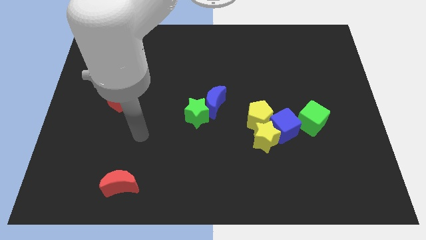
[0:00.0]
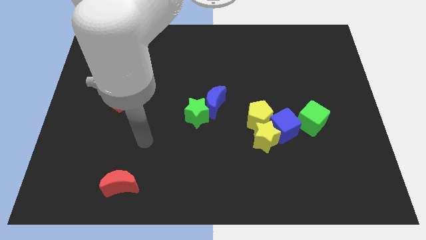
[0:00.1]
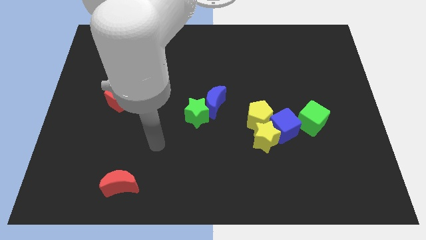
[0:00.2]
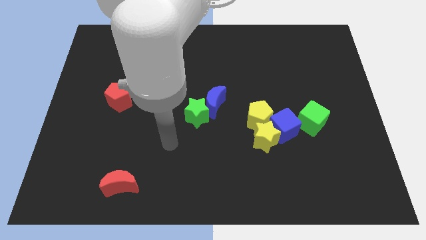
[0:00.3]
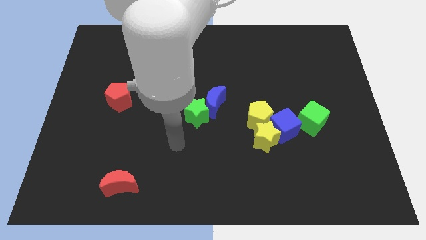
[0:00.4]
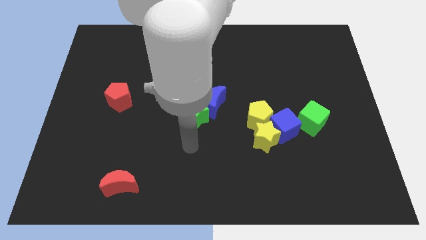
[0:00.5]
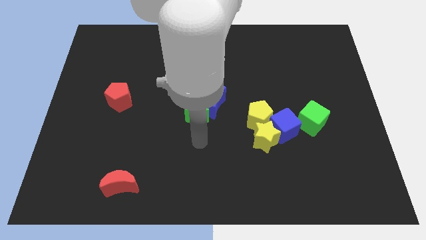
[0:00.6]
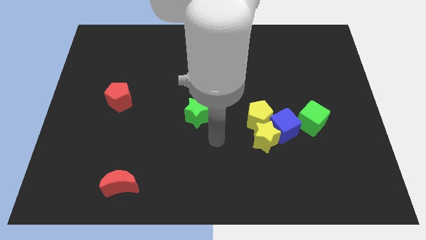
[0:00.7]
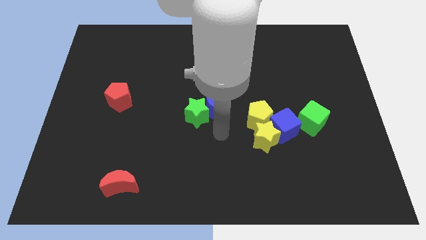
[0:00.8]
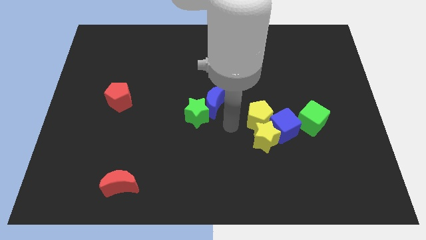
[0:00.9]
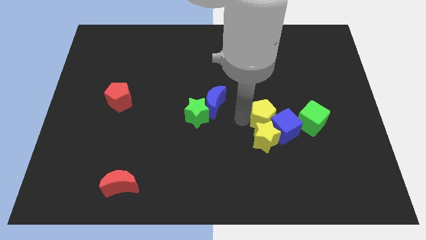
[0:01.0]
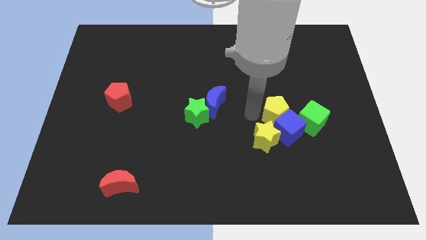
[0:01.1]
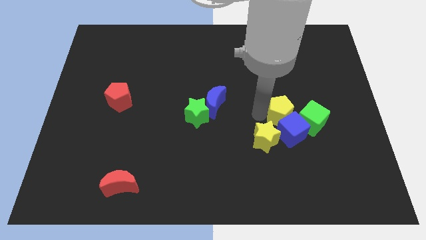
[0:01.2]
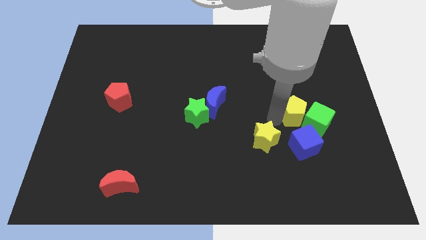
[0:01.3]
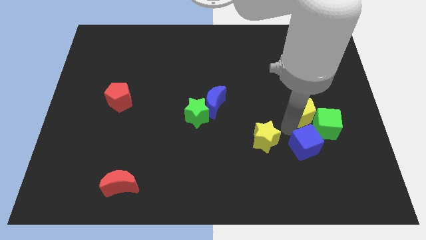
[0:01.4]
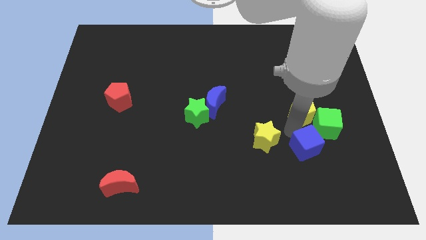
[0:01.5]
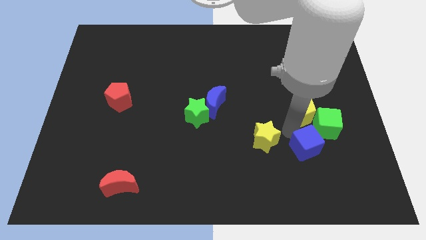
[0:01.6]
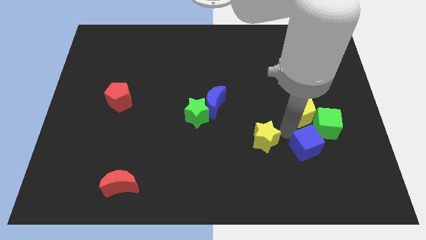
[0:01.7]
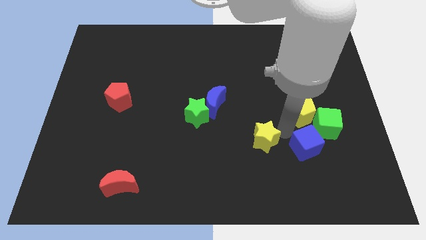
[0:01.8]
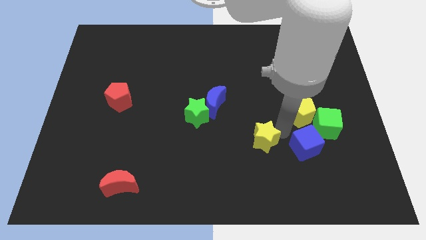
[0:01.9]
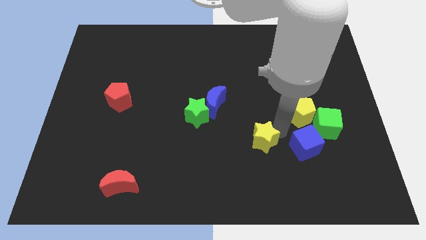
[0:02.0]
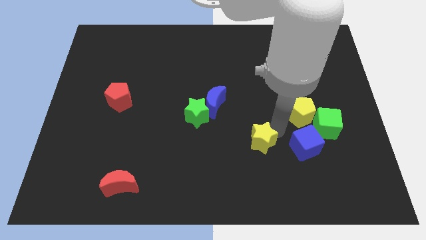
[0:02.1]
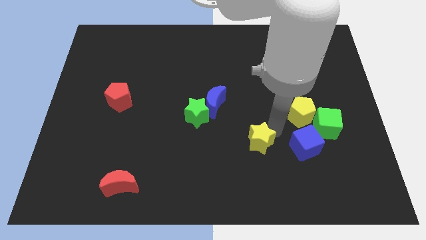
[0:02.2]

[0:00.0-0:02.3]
move the yellow star away from the blue cube and yellow pentagon

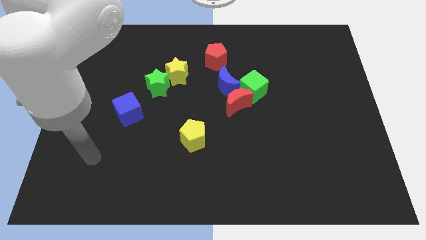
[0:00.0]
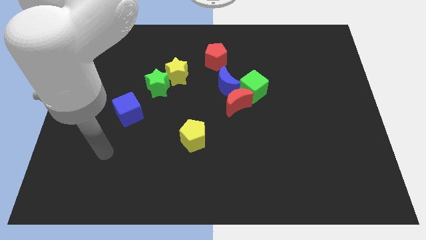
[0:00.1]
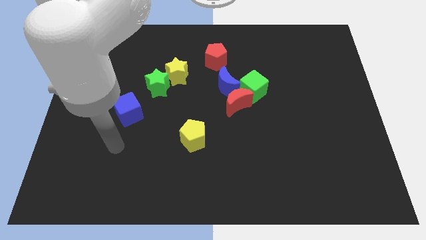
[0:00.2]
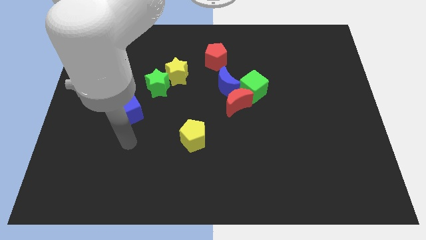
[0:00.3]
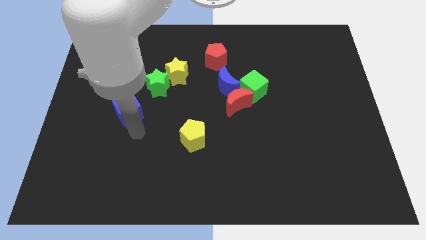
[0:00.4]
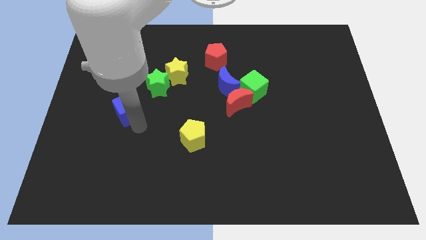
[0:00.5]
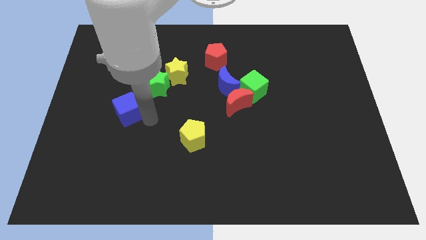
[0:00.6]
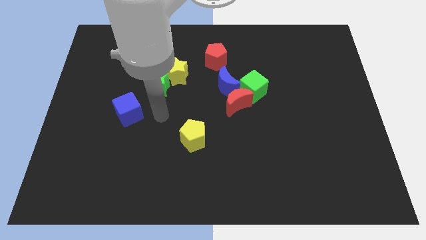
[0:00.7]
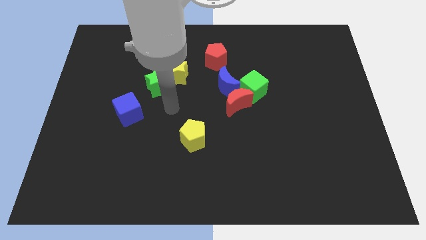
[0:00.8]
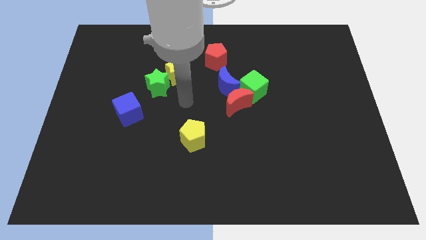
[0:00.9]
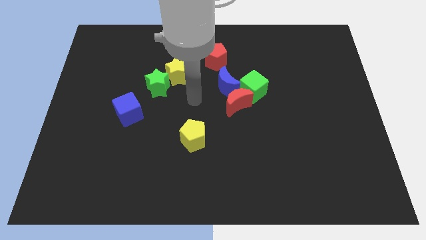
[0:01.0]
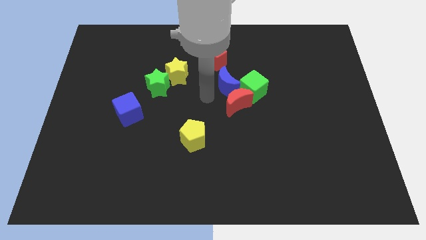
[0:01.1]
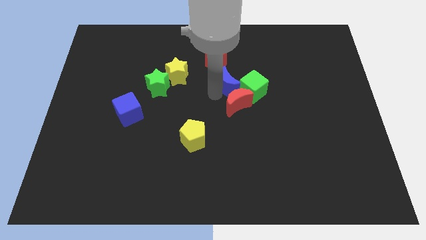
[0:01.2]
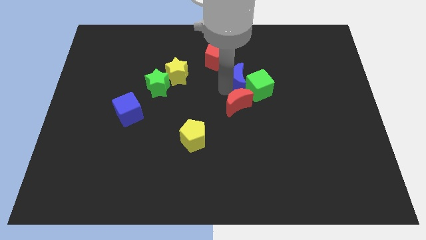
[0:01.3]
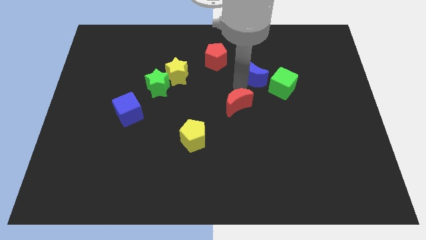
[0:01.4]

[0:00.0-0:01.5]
move the red moon away from the green cube and blue moon

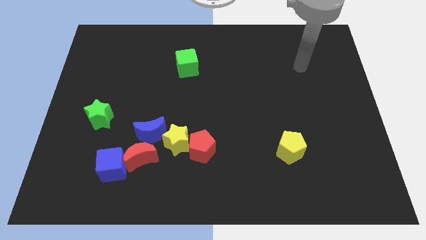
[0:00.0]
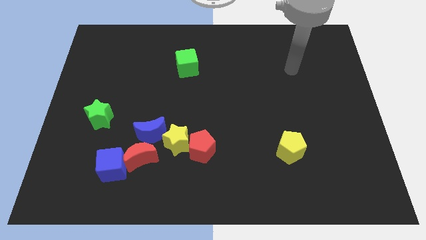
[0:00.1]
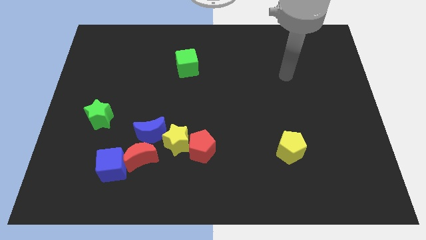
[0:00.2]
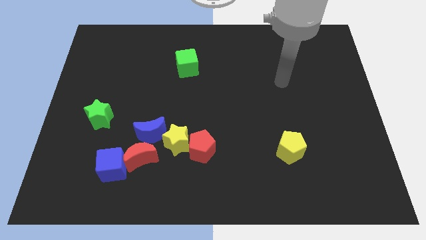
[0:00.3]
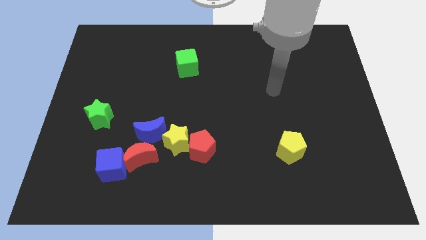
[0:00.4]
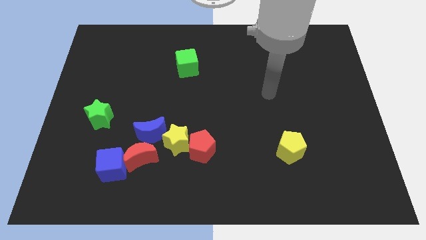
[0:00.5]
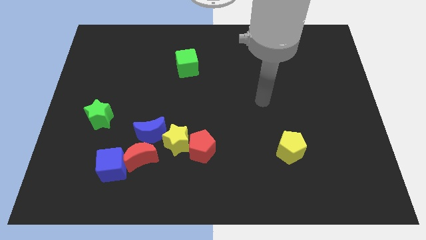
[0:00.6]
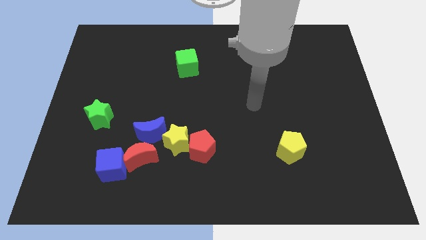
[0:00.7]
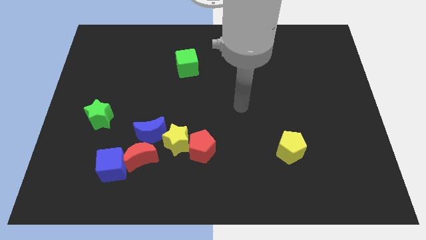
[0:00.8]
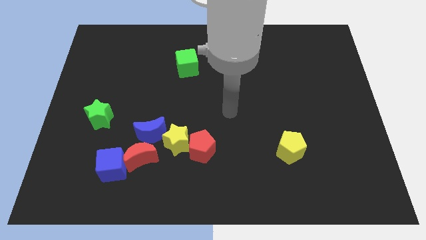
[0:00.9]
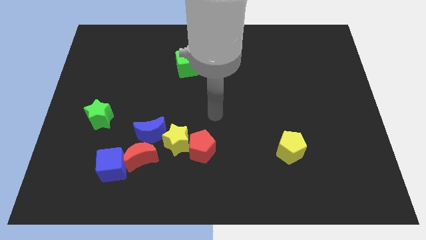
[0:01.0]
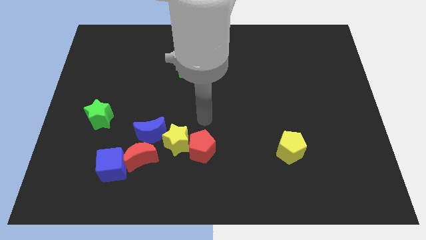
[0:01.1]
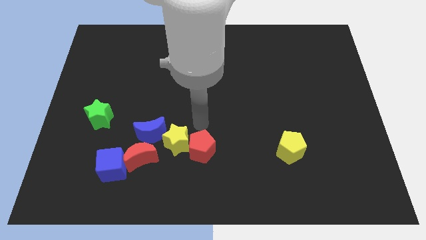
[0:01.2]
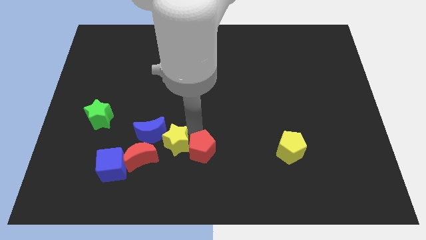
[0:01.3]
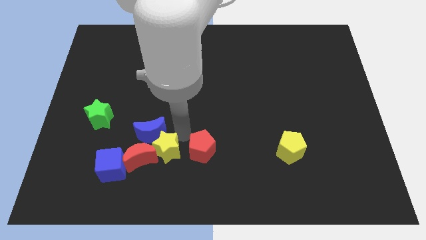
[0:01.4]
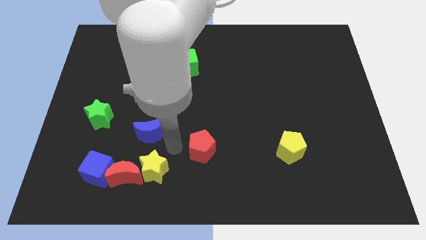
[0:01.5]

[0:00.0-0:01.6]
separate the red pentagon from the yellow star

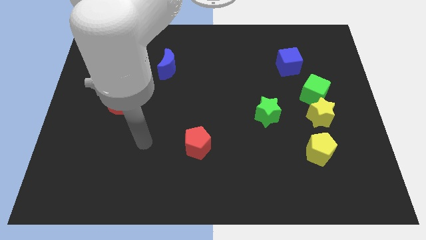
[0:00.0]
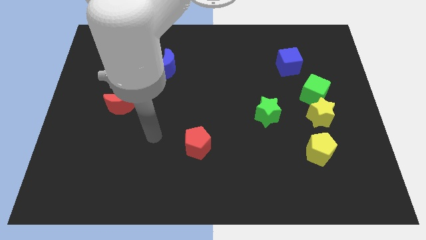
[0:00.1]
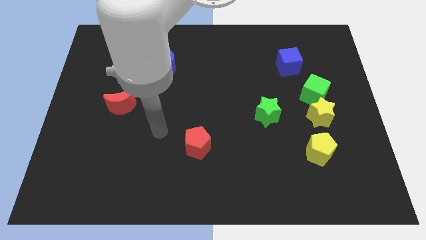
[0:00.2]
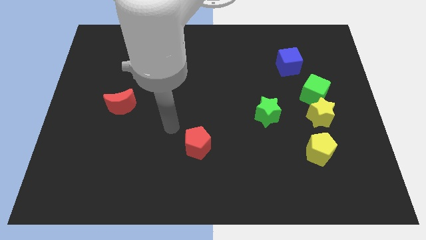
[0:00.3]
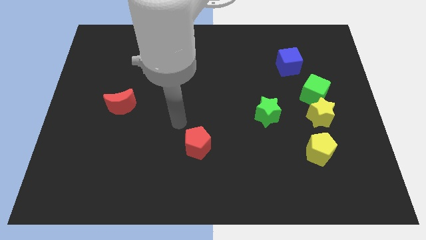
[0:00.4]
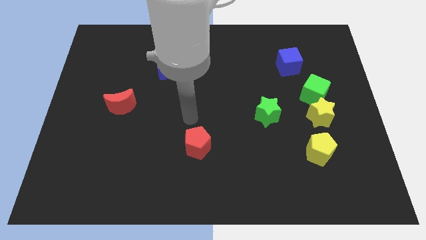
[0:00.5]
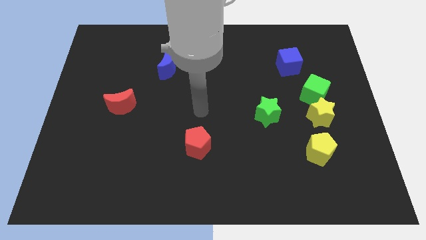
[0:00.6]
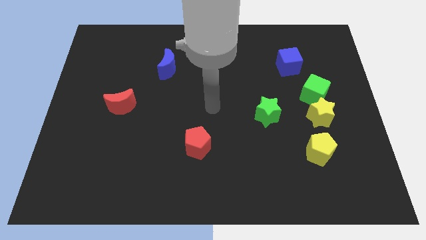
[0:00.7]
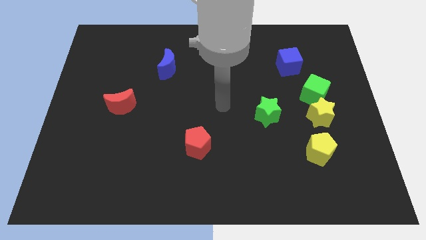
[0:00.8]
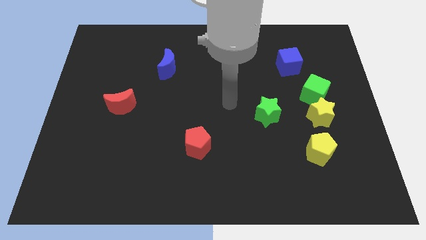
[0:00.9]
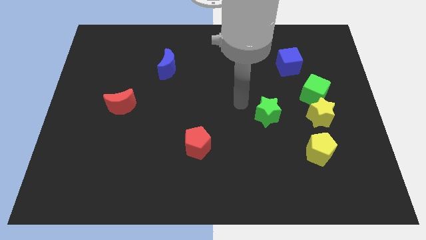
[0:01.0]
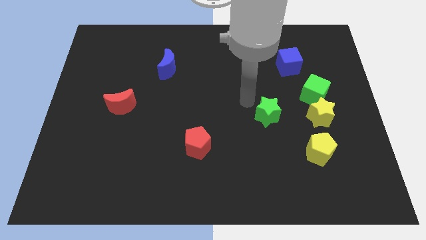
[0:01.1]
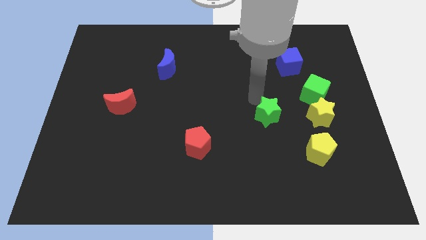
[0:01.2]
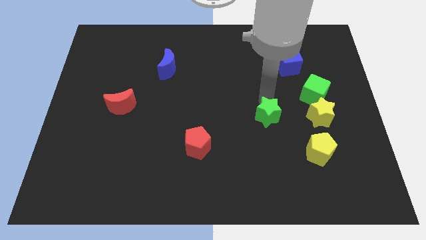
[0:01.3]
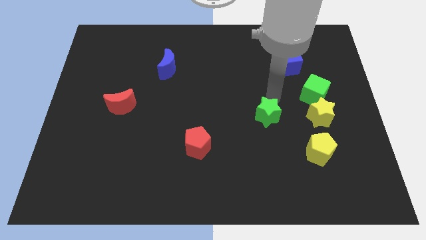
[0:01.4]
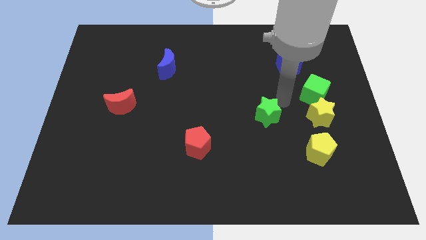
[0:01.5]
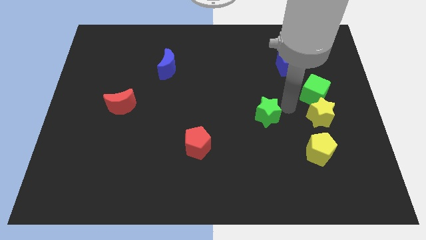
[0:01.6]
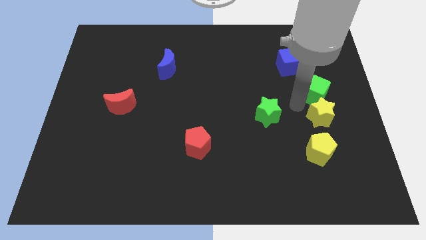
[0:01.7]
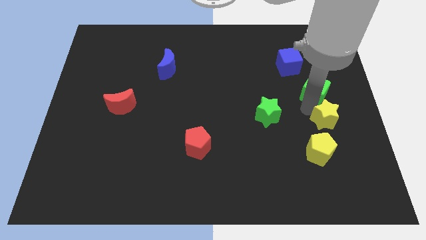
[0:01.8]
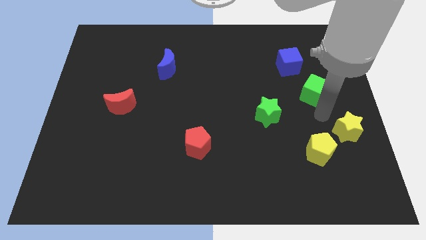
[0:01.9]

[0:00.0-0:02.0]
pull the green cube apart from the yellow star

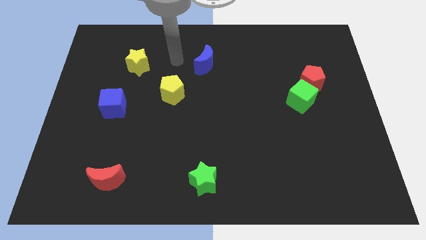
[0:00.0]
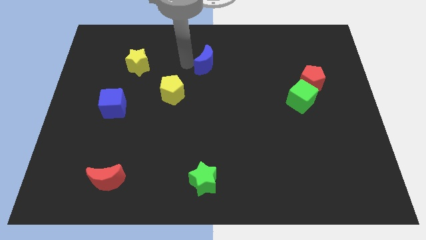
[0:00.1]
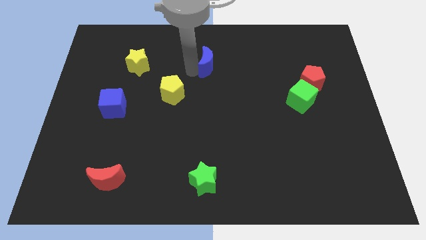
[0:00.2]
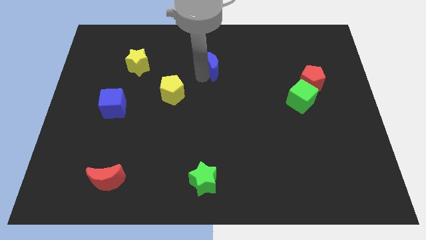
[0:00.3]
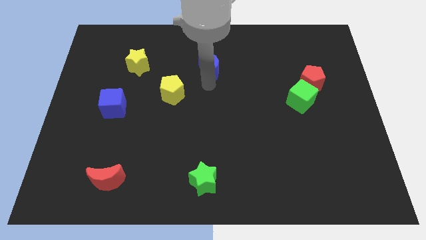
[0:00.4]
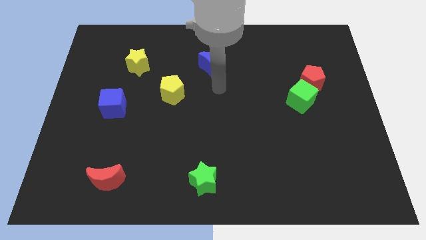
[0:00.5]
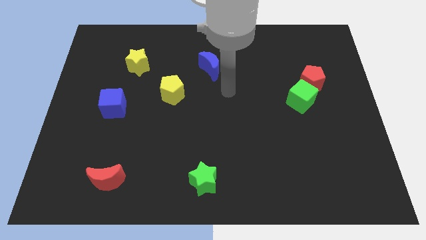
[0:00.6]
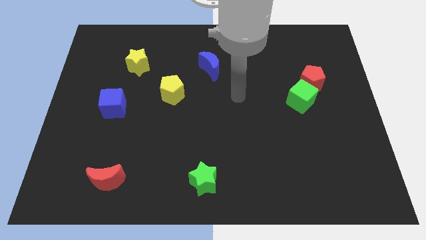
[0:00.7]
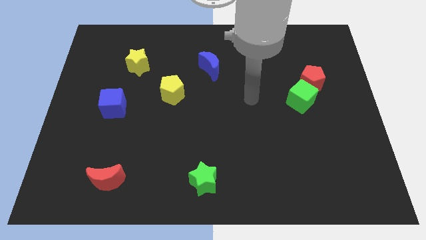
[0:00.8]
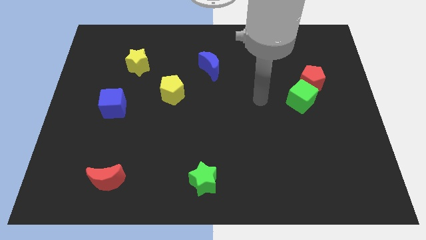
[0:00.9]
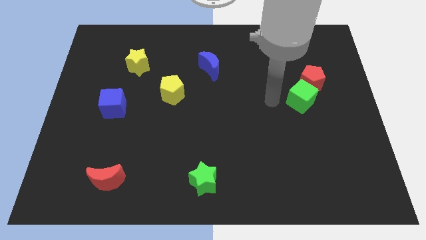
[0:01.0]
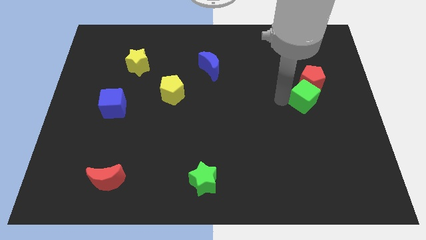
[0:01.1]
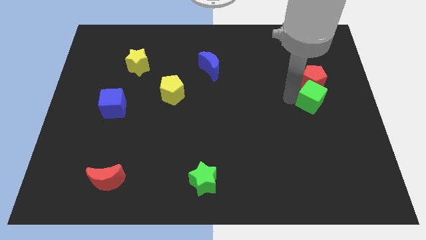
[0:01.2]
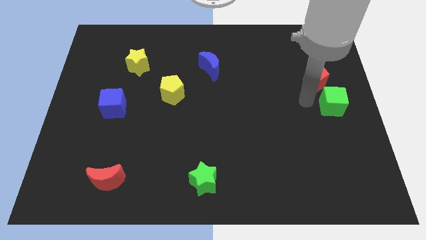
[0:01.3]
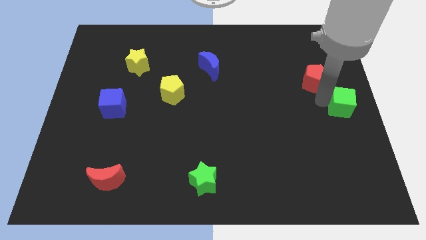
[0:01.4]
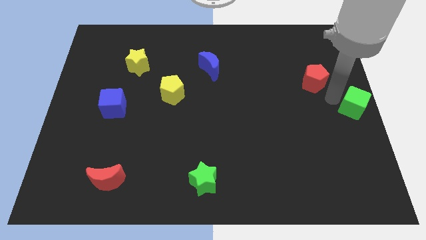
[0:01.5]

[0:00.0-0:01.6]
separate the red pentagon from the green cube

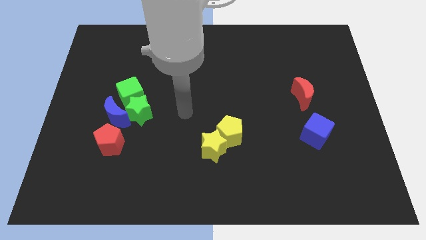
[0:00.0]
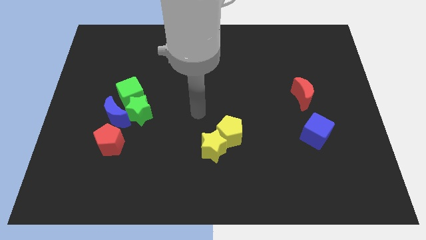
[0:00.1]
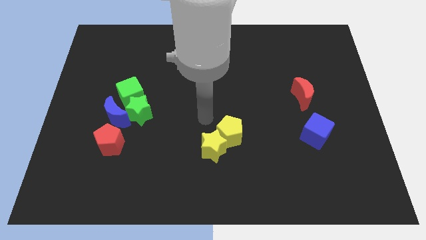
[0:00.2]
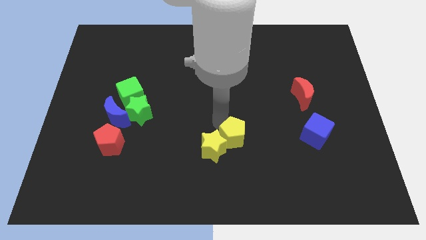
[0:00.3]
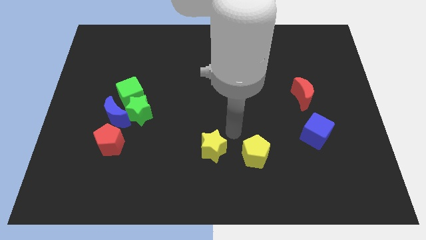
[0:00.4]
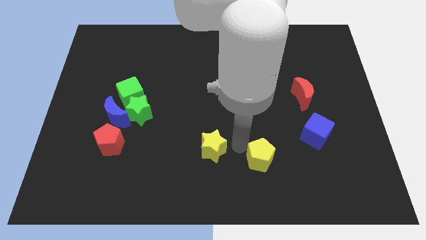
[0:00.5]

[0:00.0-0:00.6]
pull the yellow star apart from the yellow pentagon
